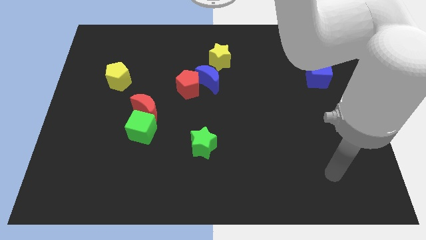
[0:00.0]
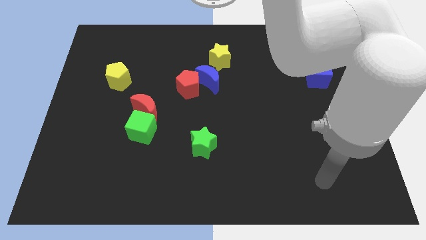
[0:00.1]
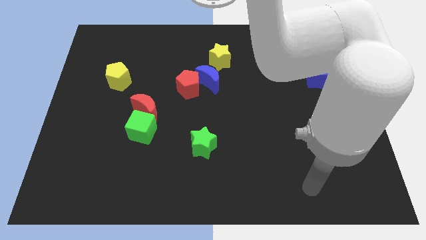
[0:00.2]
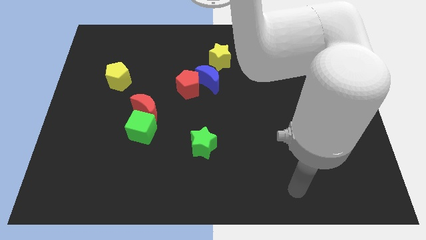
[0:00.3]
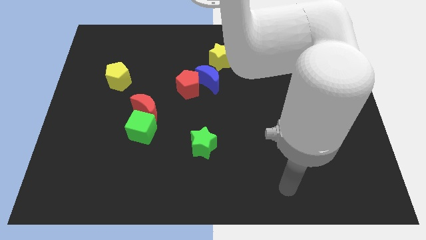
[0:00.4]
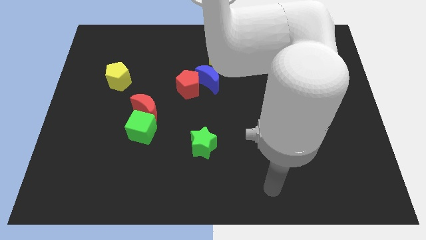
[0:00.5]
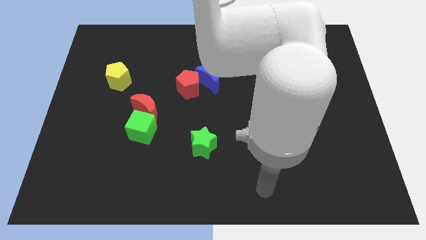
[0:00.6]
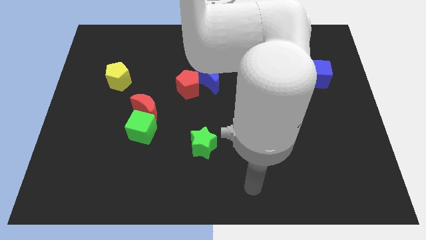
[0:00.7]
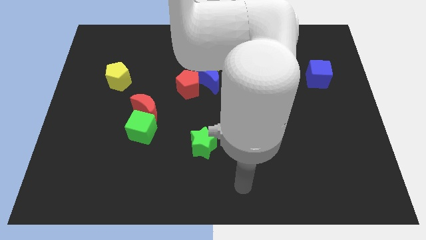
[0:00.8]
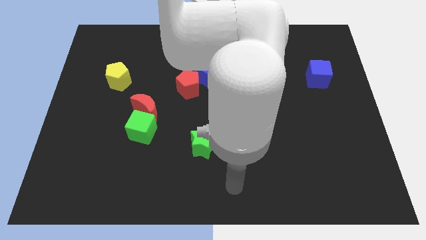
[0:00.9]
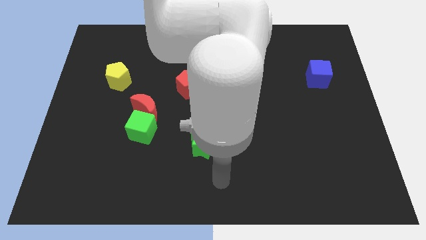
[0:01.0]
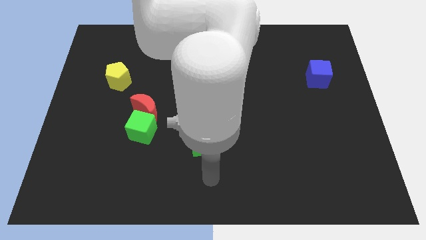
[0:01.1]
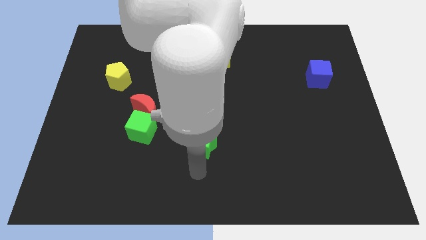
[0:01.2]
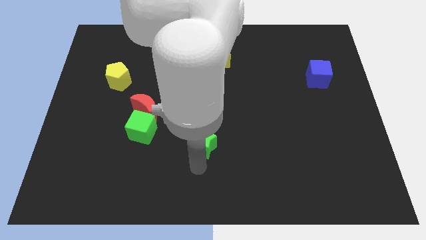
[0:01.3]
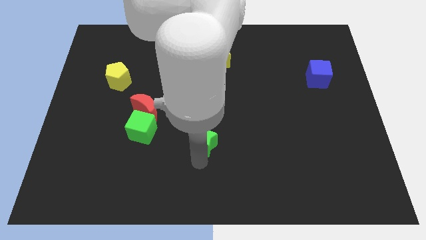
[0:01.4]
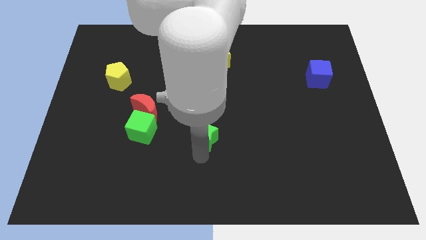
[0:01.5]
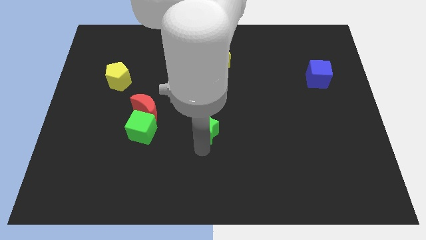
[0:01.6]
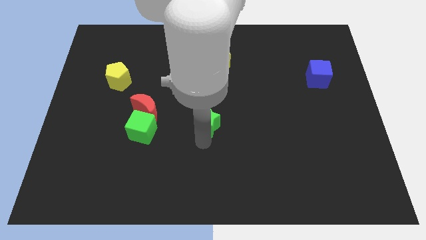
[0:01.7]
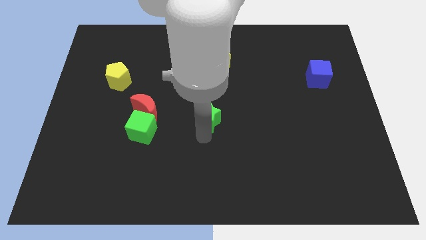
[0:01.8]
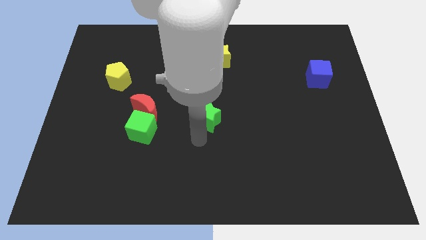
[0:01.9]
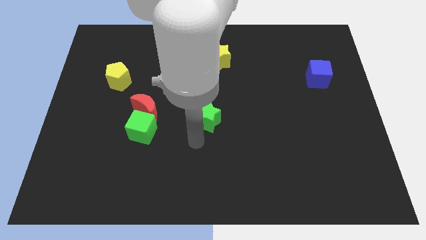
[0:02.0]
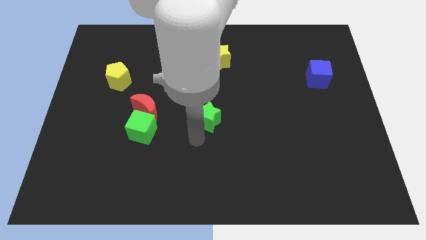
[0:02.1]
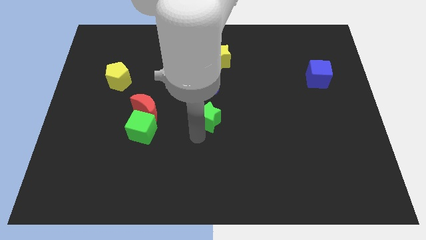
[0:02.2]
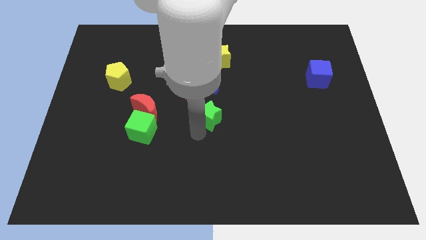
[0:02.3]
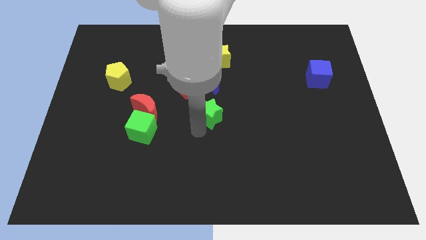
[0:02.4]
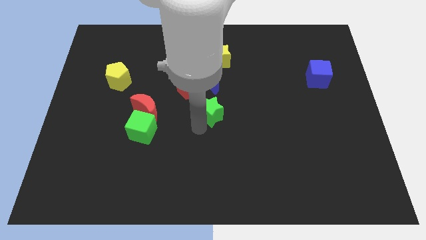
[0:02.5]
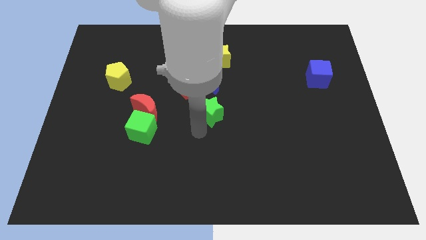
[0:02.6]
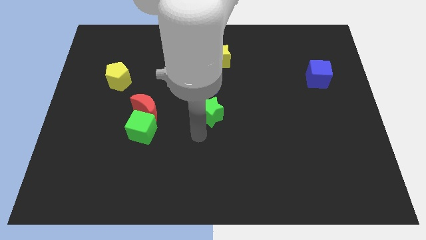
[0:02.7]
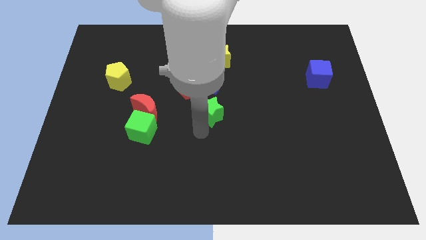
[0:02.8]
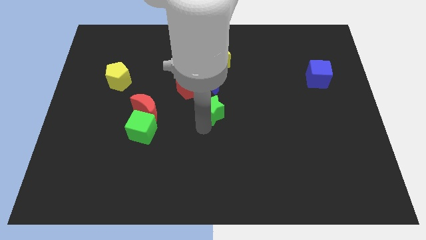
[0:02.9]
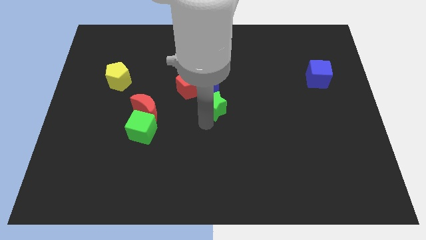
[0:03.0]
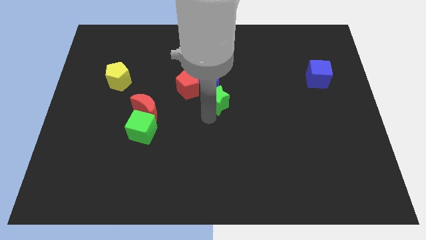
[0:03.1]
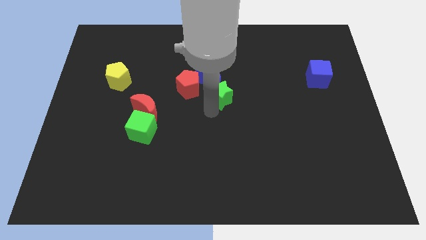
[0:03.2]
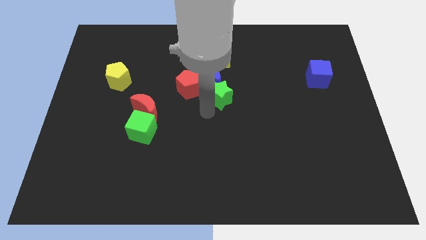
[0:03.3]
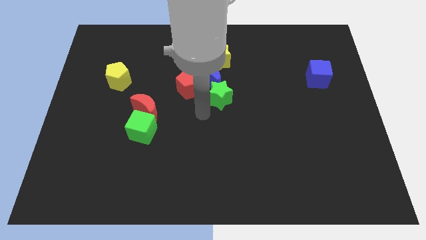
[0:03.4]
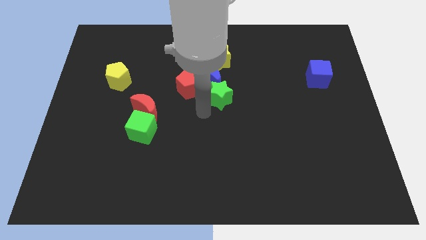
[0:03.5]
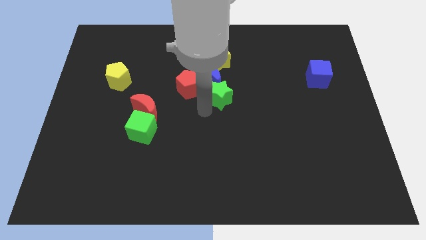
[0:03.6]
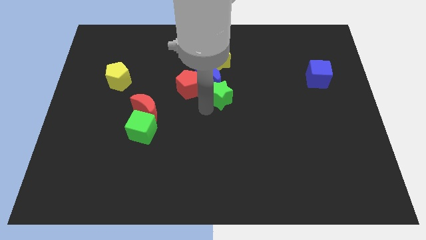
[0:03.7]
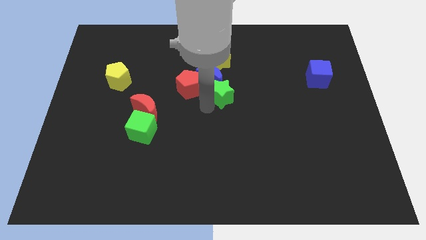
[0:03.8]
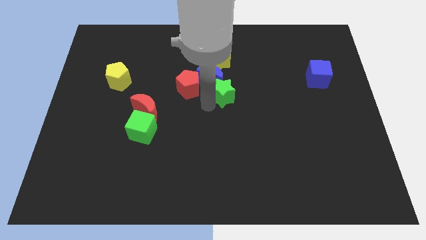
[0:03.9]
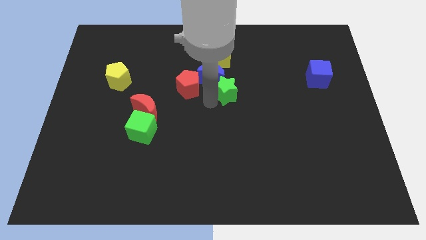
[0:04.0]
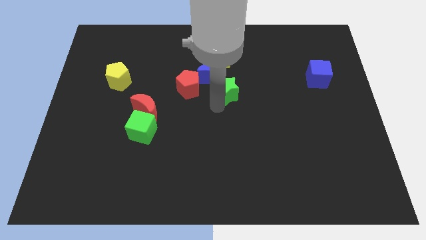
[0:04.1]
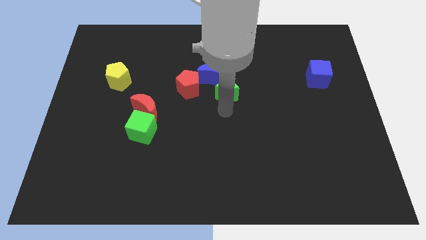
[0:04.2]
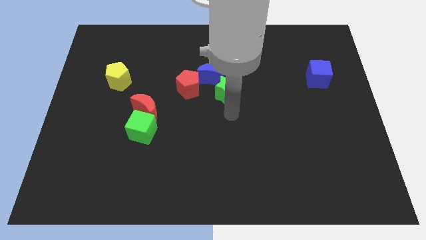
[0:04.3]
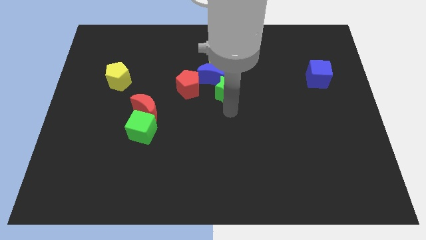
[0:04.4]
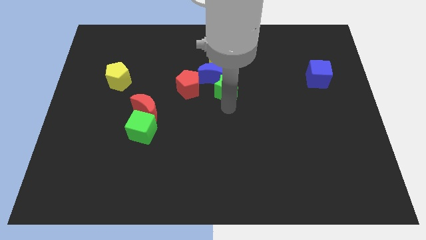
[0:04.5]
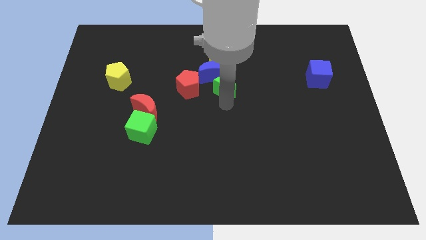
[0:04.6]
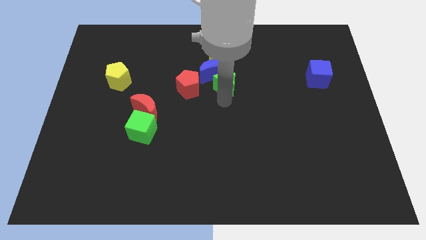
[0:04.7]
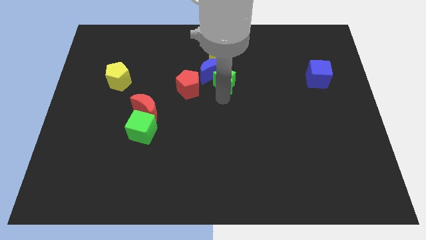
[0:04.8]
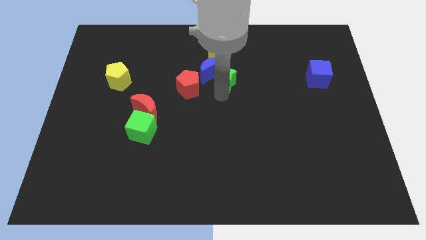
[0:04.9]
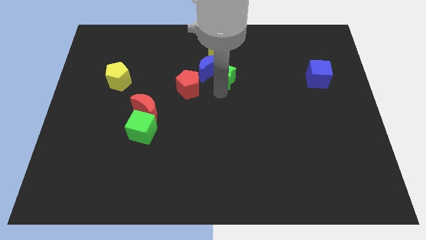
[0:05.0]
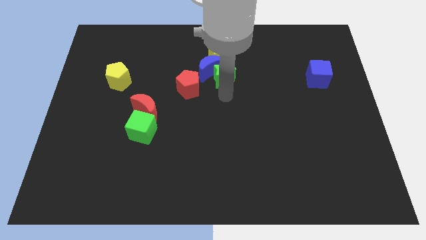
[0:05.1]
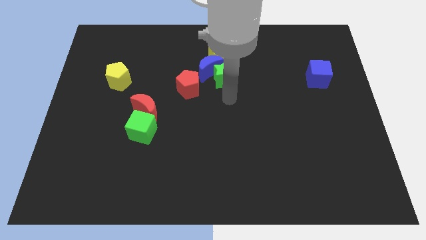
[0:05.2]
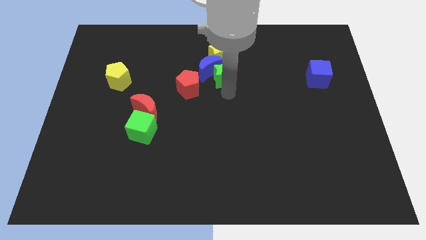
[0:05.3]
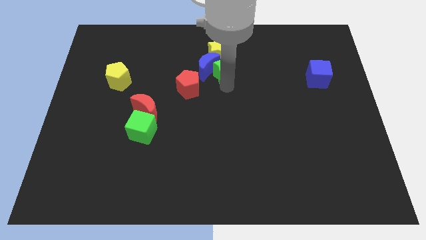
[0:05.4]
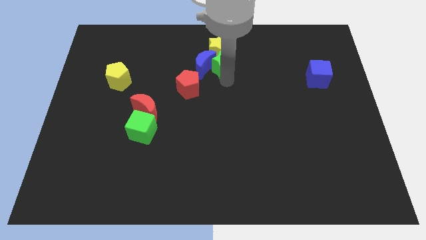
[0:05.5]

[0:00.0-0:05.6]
push the green star towards the yellow star

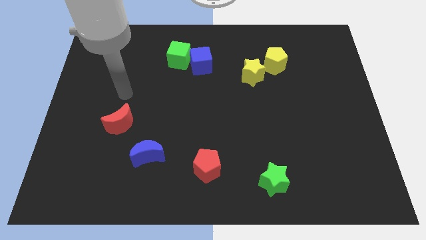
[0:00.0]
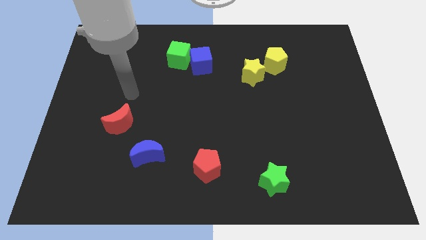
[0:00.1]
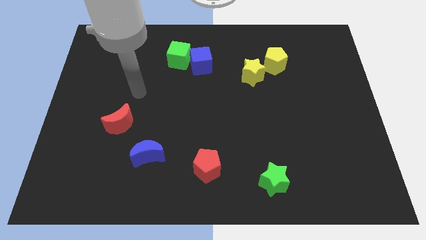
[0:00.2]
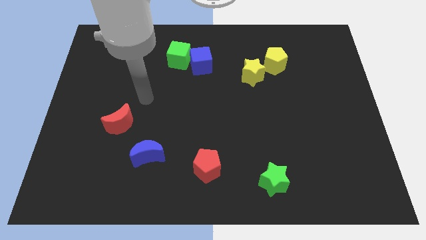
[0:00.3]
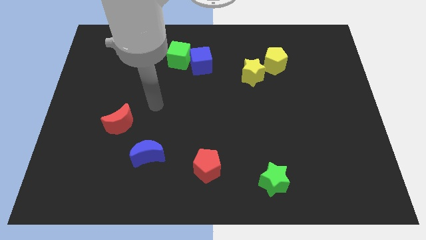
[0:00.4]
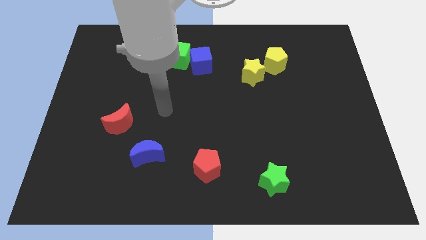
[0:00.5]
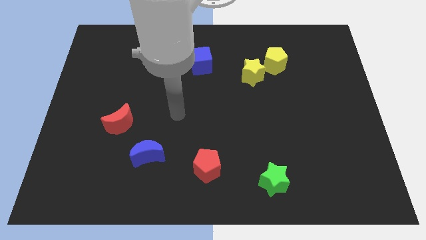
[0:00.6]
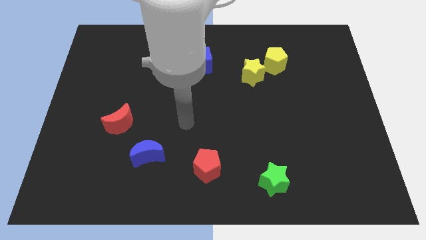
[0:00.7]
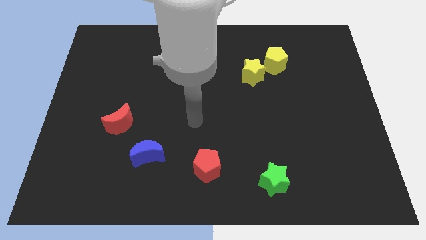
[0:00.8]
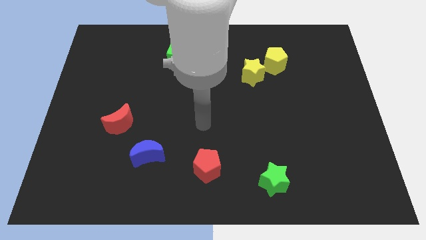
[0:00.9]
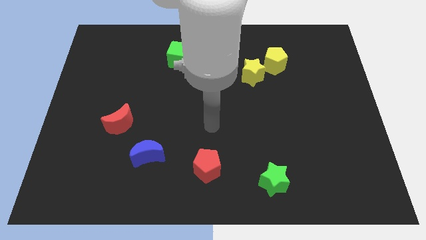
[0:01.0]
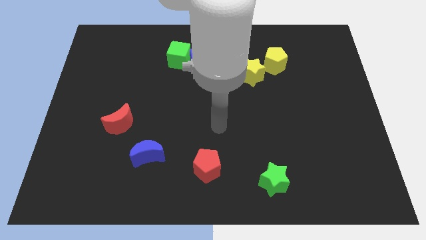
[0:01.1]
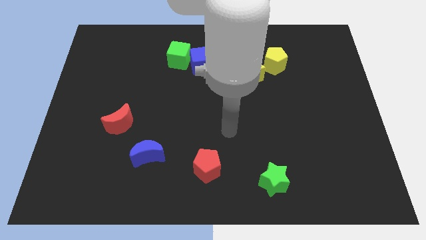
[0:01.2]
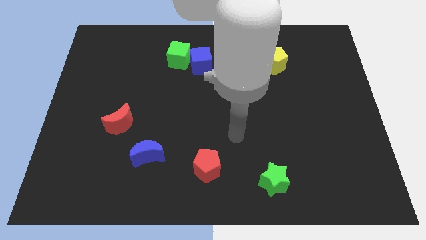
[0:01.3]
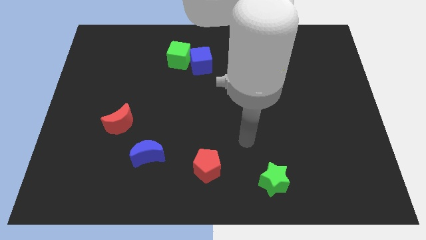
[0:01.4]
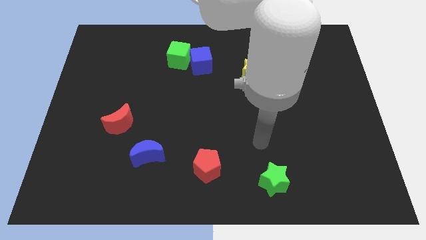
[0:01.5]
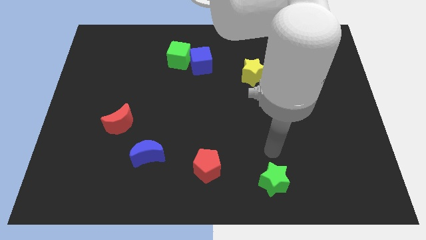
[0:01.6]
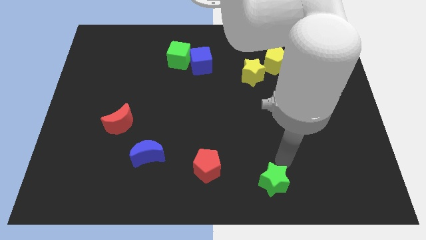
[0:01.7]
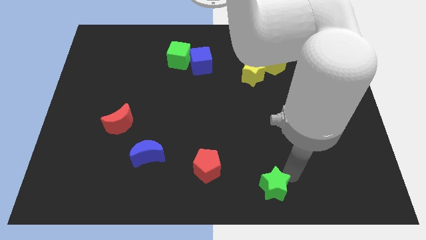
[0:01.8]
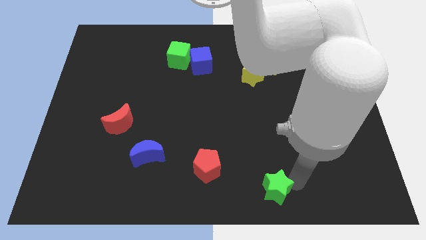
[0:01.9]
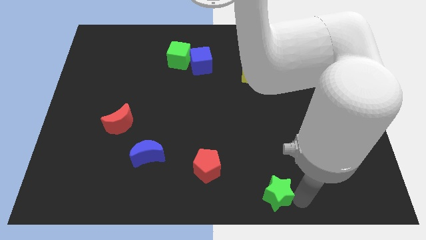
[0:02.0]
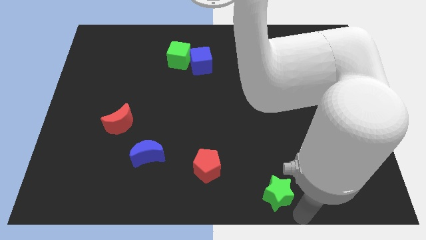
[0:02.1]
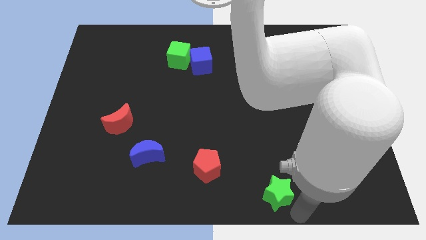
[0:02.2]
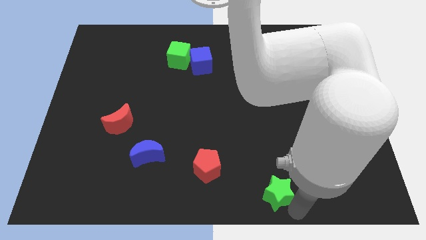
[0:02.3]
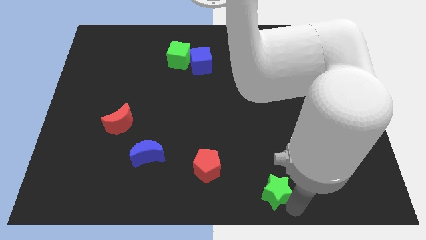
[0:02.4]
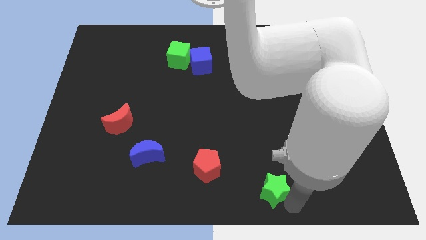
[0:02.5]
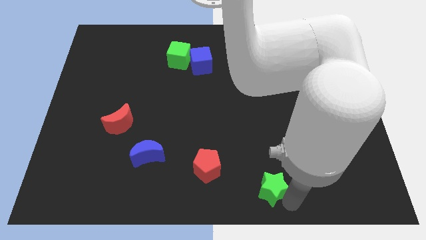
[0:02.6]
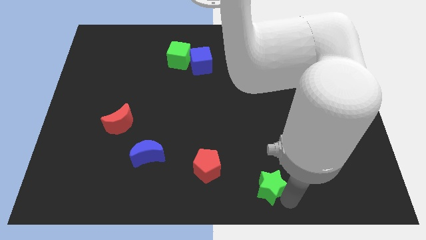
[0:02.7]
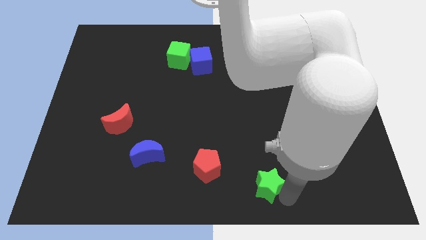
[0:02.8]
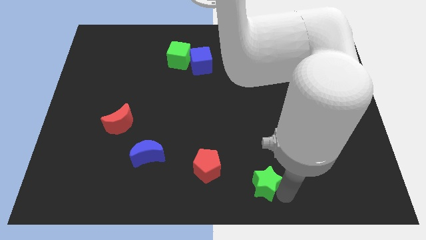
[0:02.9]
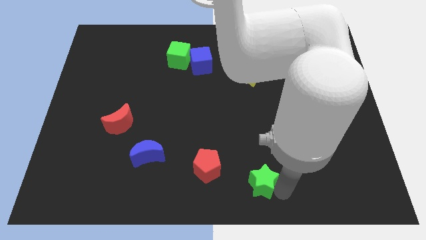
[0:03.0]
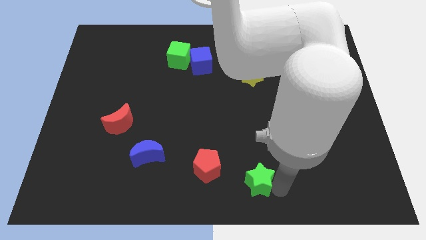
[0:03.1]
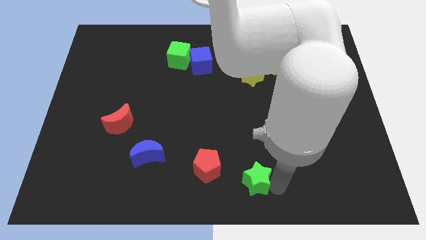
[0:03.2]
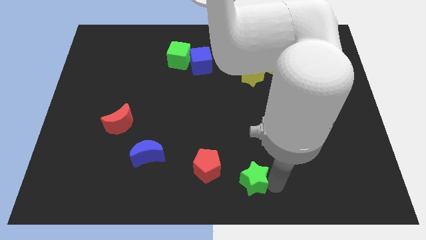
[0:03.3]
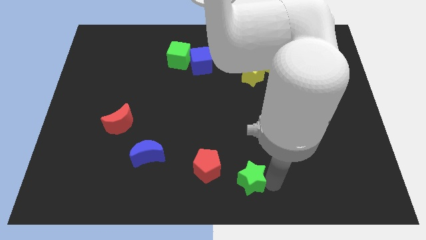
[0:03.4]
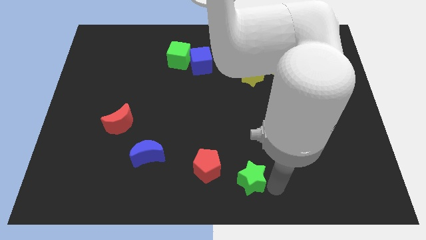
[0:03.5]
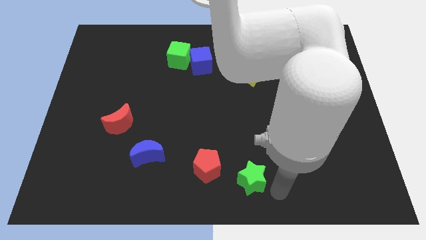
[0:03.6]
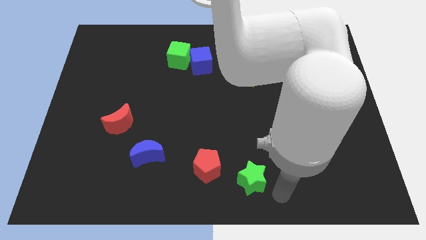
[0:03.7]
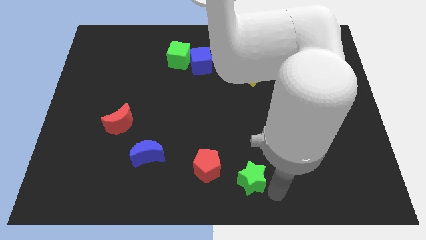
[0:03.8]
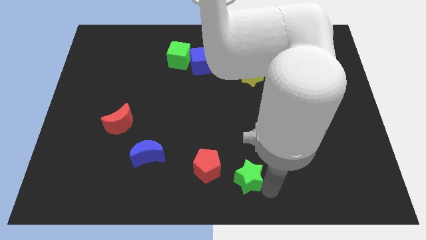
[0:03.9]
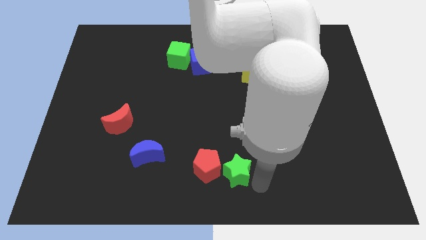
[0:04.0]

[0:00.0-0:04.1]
slide the green star to the red pentagon
